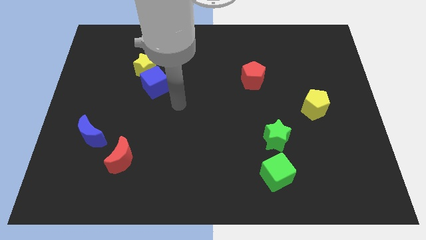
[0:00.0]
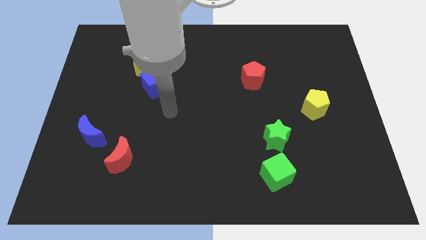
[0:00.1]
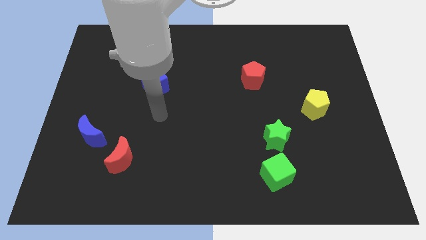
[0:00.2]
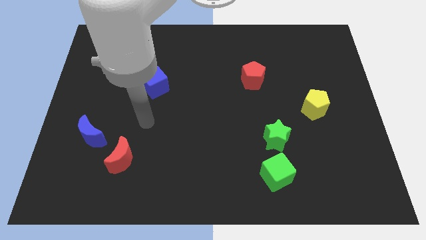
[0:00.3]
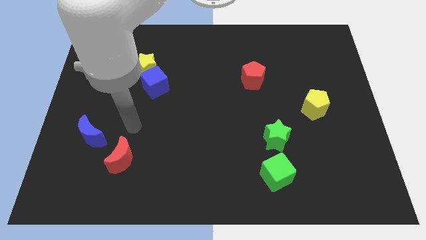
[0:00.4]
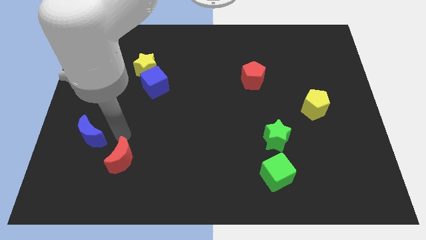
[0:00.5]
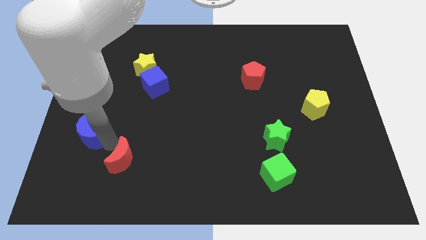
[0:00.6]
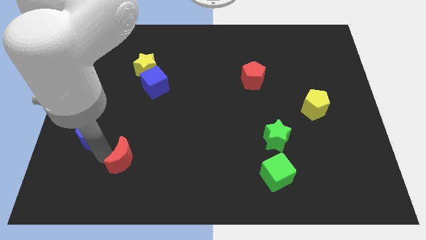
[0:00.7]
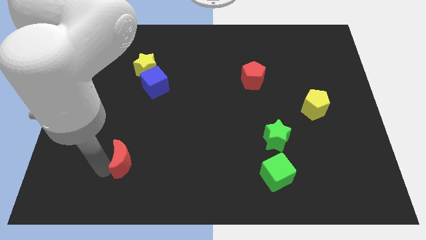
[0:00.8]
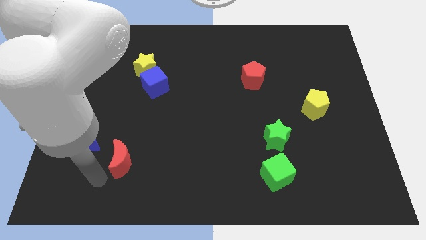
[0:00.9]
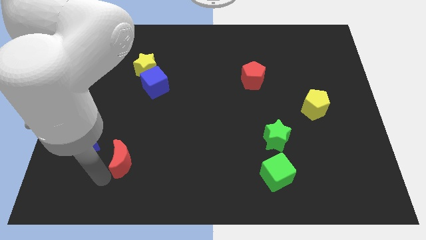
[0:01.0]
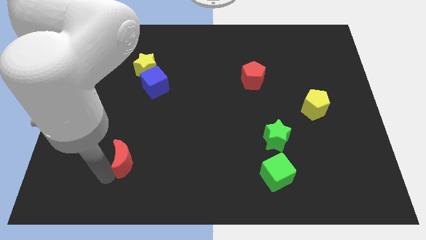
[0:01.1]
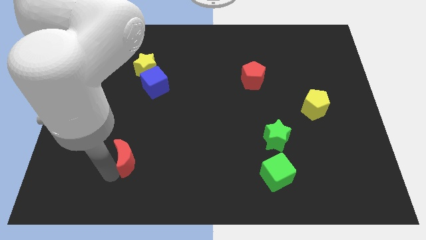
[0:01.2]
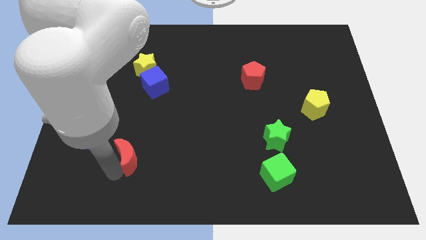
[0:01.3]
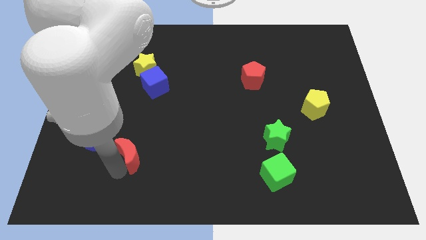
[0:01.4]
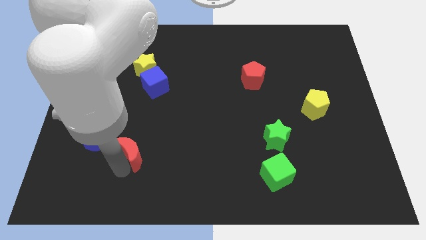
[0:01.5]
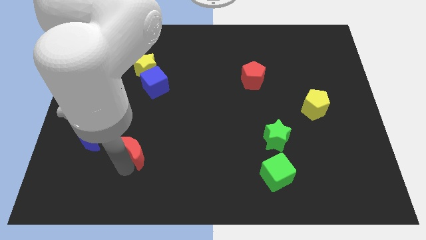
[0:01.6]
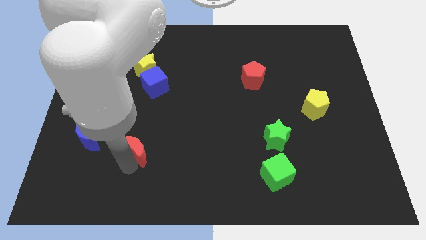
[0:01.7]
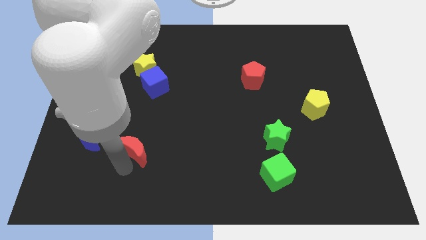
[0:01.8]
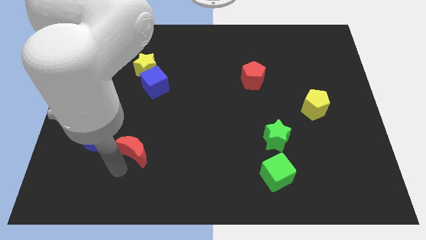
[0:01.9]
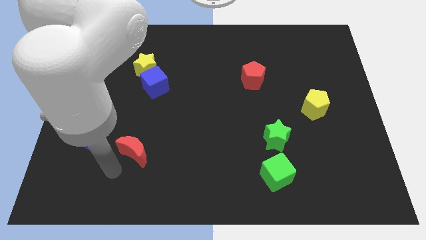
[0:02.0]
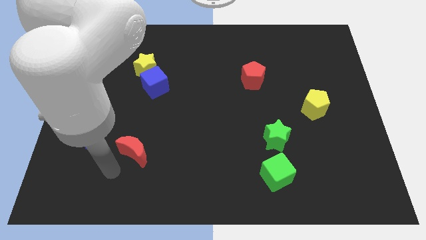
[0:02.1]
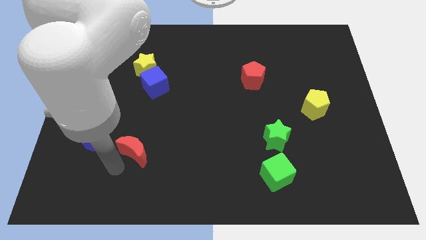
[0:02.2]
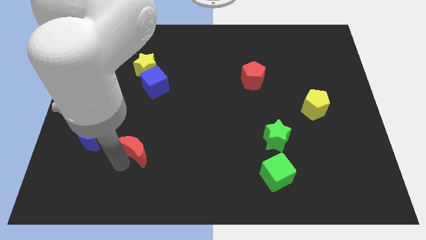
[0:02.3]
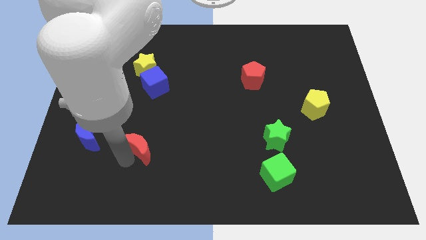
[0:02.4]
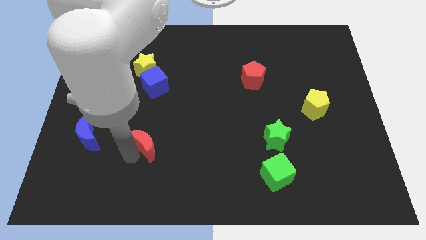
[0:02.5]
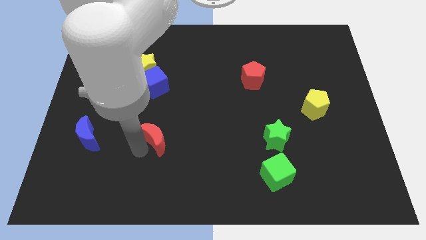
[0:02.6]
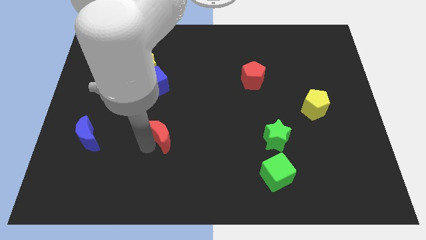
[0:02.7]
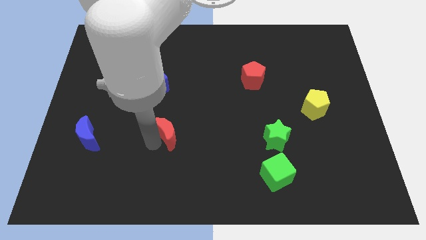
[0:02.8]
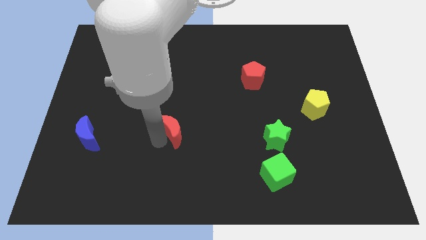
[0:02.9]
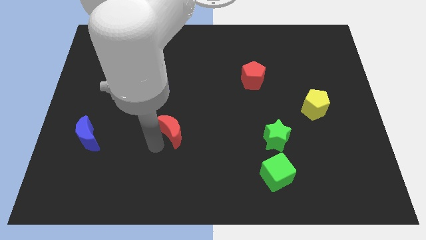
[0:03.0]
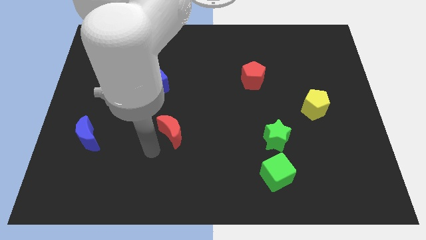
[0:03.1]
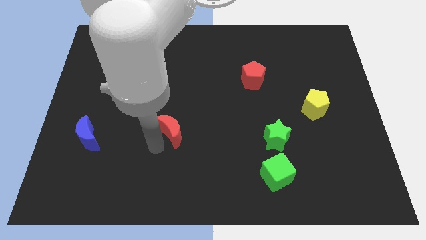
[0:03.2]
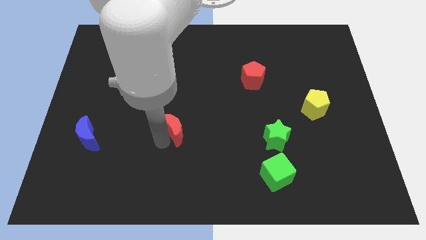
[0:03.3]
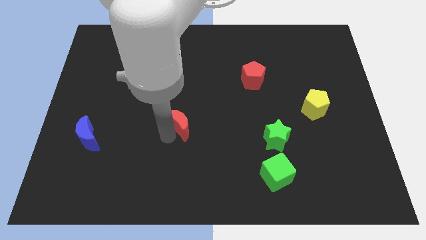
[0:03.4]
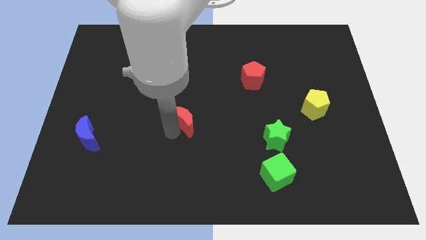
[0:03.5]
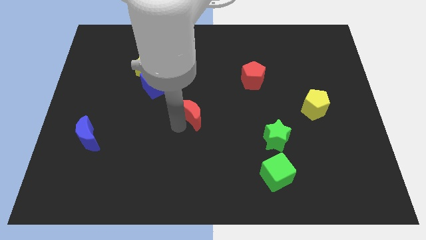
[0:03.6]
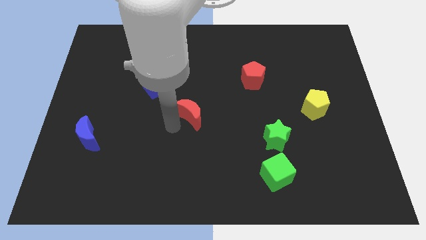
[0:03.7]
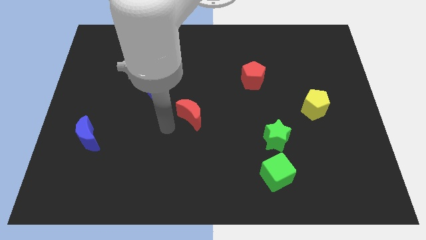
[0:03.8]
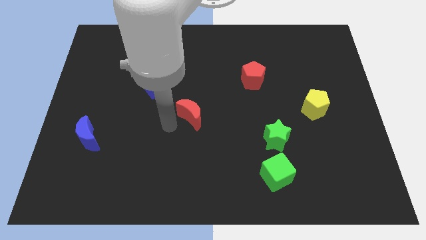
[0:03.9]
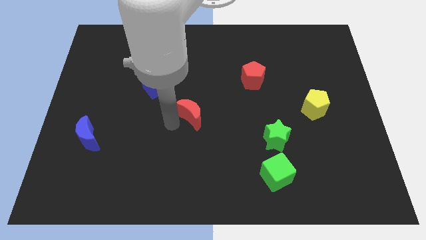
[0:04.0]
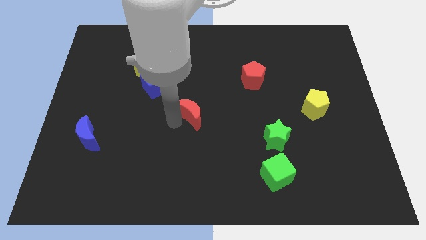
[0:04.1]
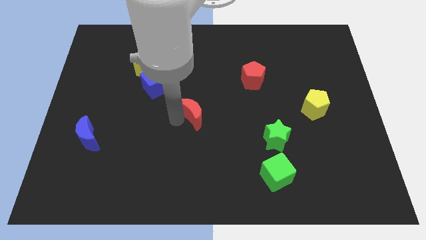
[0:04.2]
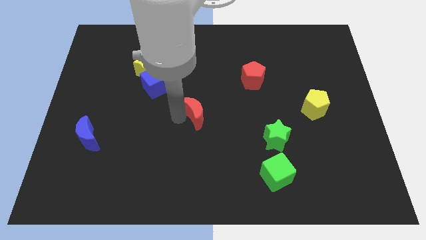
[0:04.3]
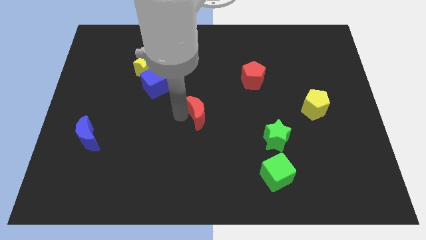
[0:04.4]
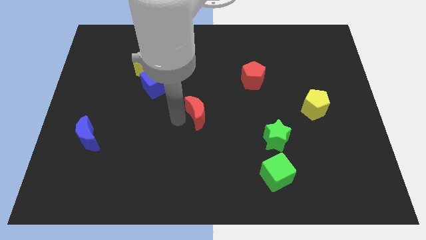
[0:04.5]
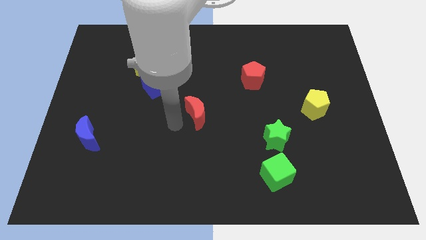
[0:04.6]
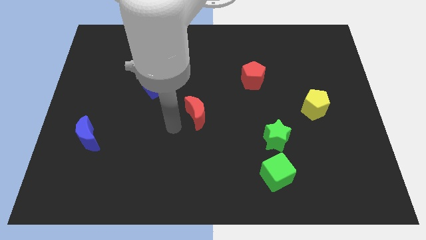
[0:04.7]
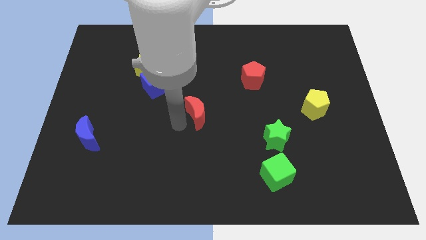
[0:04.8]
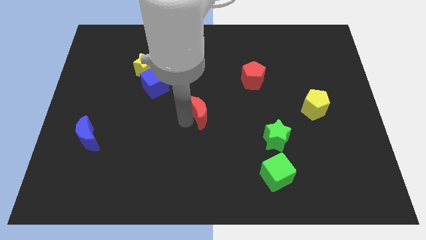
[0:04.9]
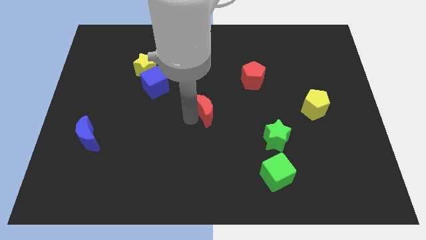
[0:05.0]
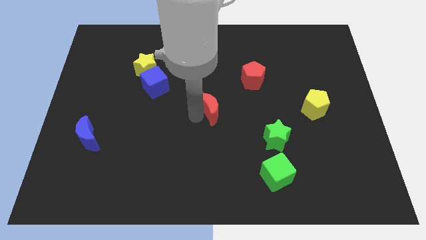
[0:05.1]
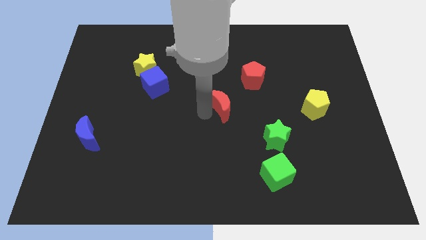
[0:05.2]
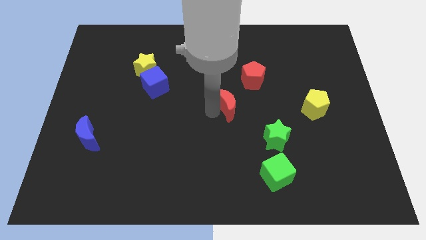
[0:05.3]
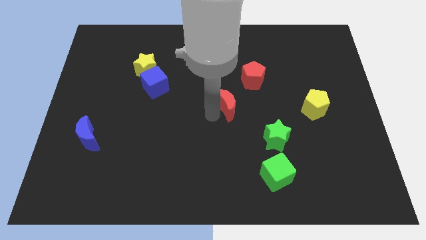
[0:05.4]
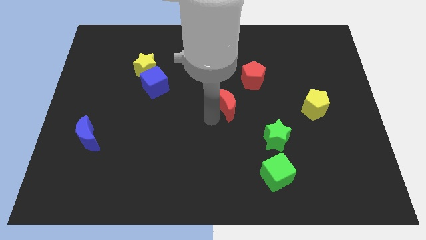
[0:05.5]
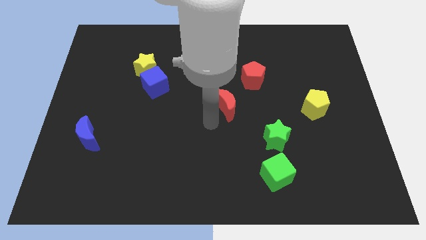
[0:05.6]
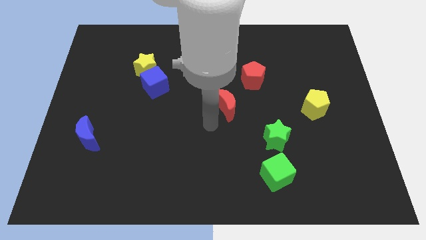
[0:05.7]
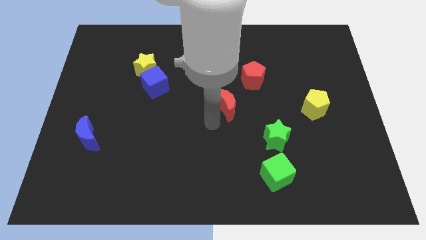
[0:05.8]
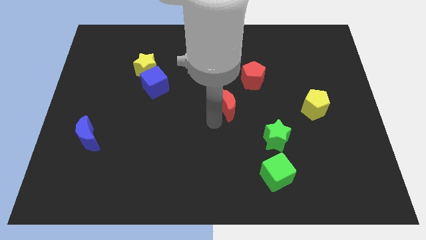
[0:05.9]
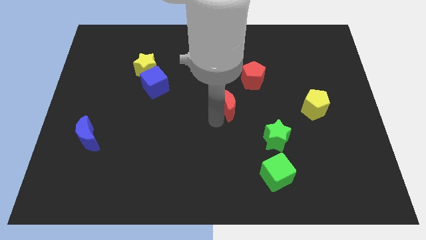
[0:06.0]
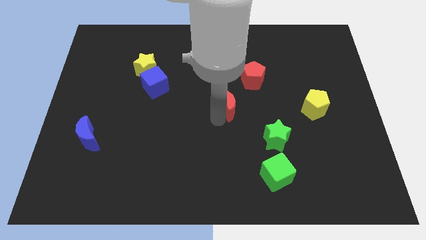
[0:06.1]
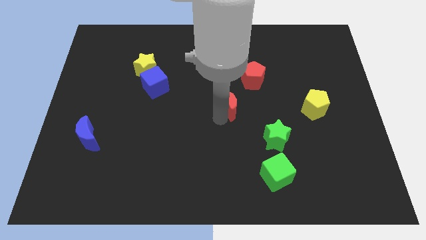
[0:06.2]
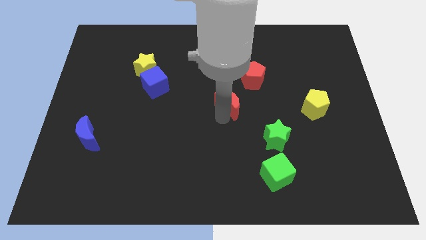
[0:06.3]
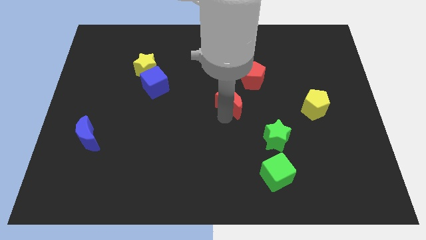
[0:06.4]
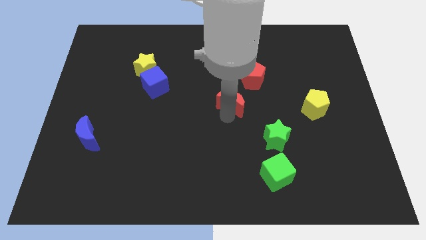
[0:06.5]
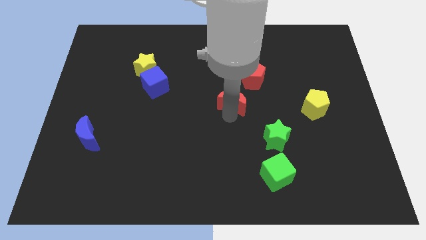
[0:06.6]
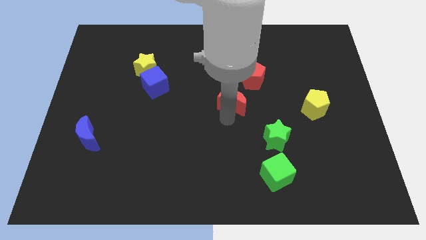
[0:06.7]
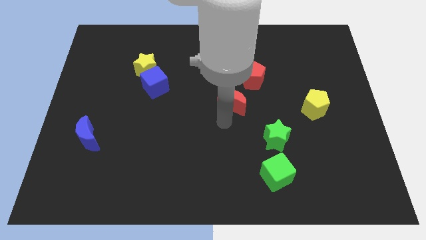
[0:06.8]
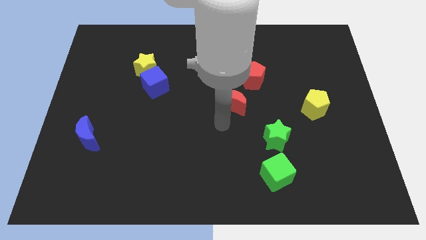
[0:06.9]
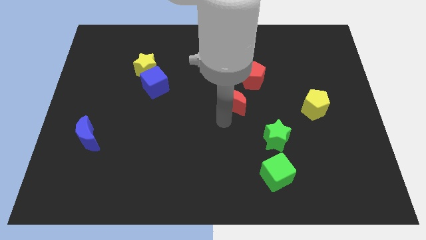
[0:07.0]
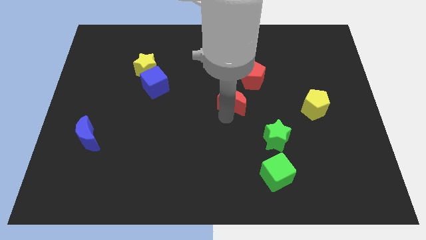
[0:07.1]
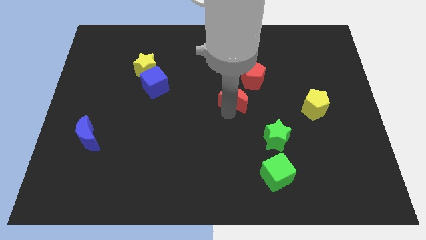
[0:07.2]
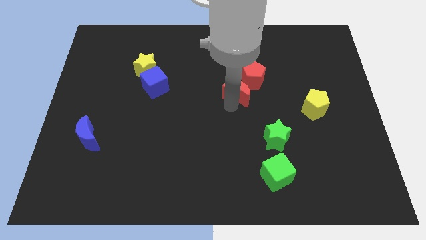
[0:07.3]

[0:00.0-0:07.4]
slide the red moon close to the red pentagon
